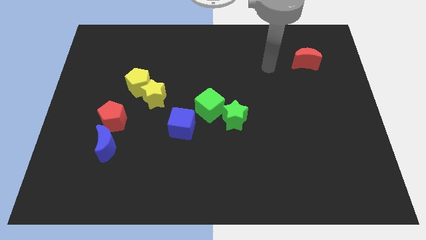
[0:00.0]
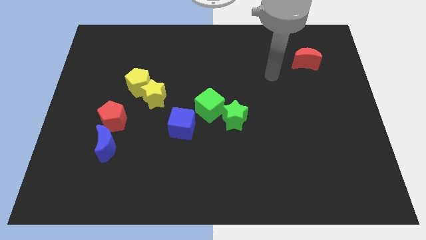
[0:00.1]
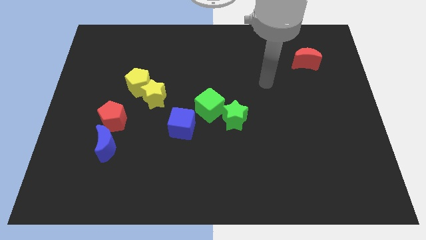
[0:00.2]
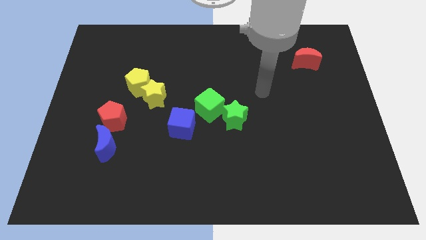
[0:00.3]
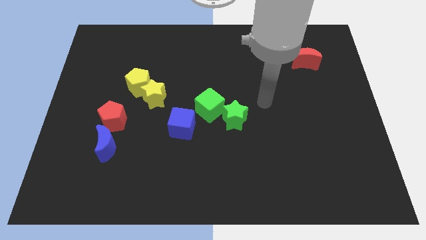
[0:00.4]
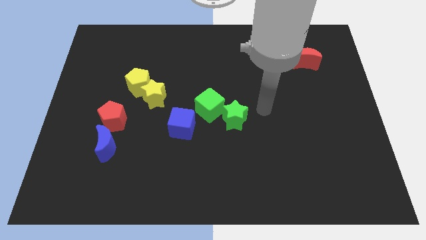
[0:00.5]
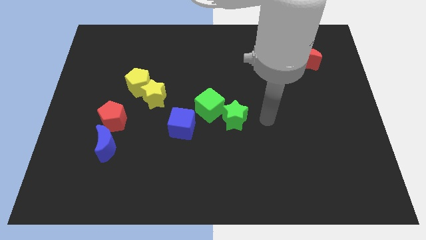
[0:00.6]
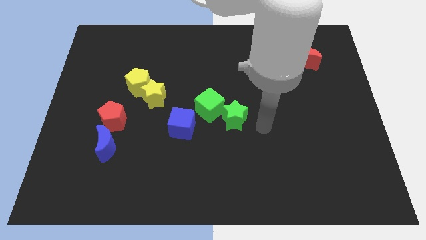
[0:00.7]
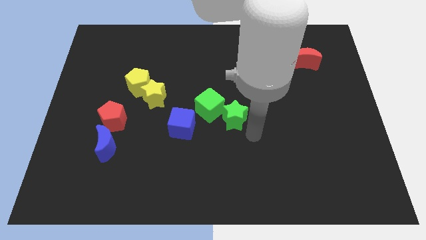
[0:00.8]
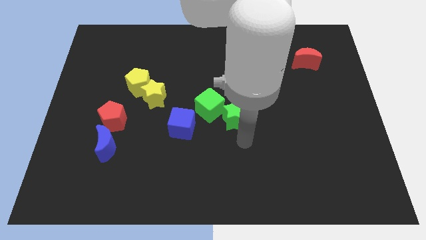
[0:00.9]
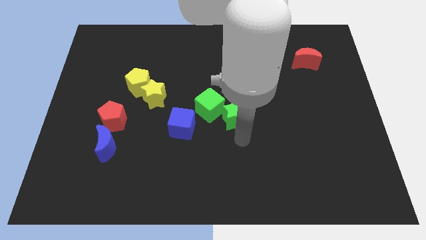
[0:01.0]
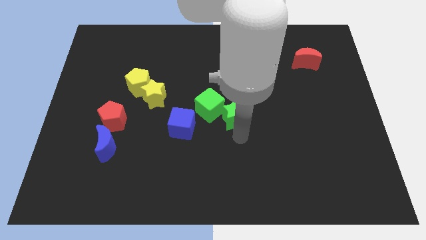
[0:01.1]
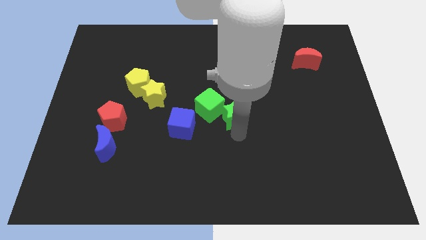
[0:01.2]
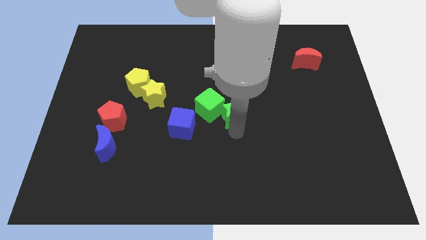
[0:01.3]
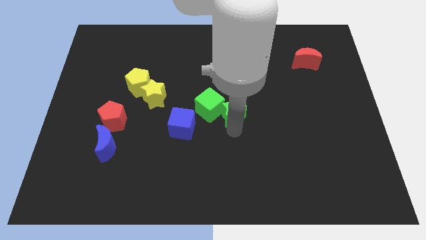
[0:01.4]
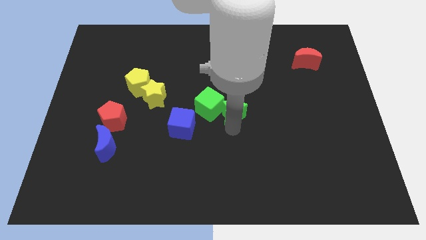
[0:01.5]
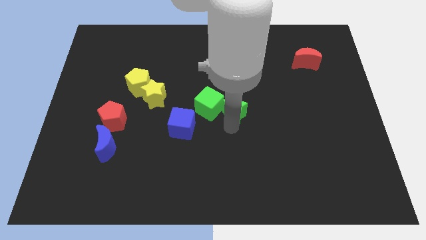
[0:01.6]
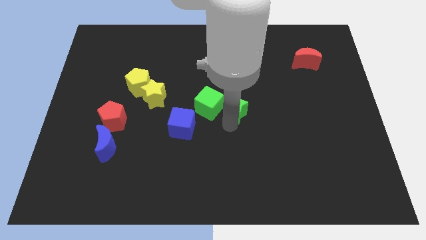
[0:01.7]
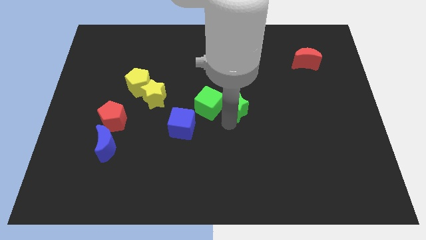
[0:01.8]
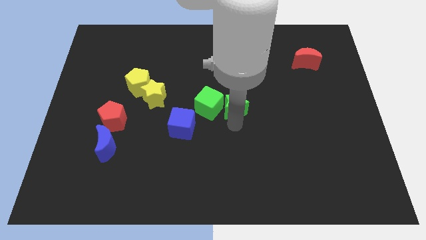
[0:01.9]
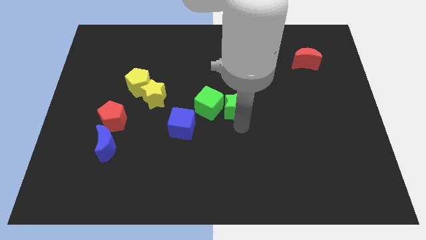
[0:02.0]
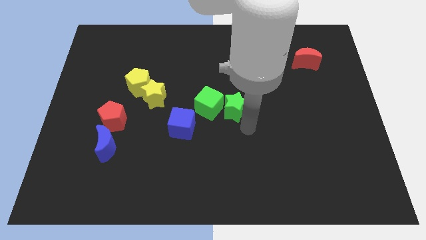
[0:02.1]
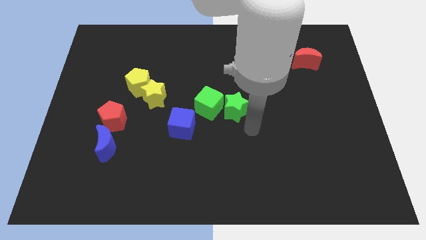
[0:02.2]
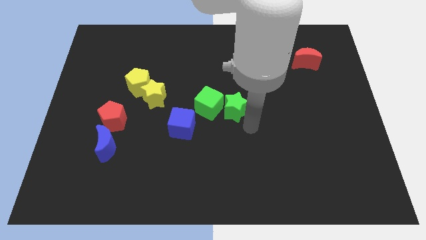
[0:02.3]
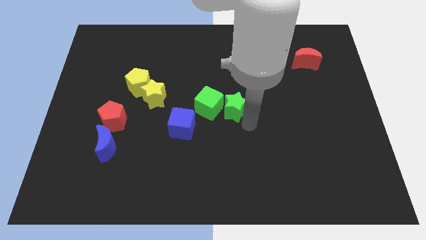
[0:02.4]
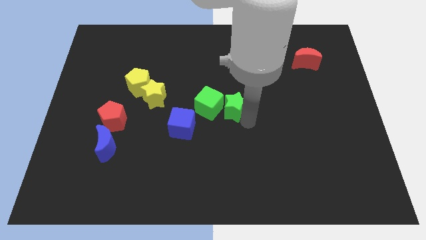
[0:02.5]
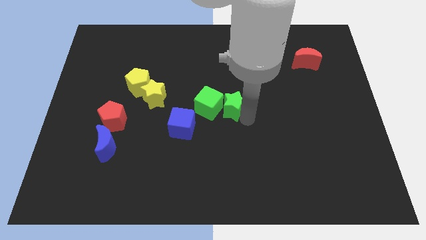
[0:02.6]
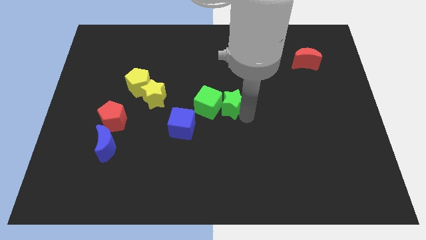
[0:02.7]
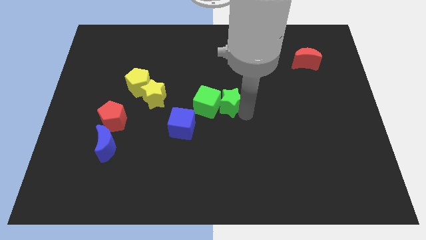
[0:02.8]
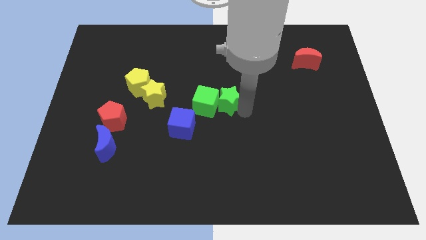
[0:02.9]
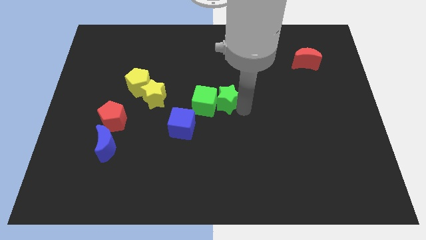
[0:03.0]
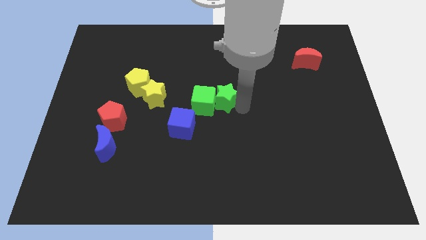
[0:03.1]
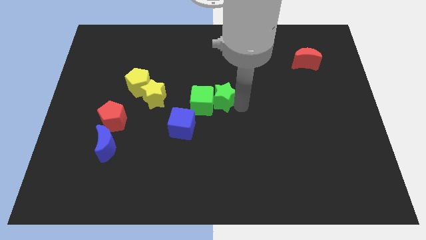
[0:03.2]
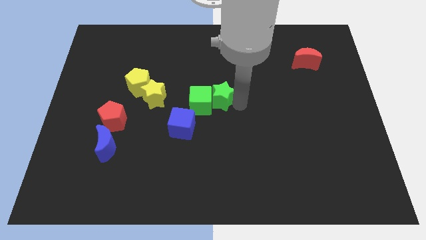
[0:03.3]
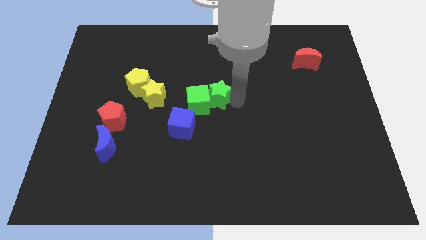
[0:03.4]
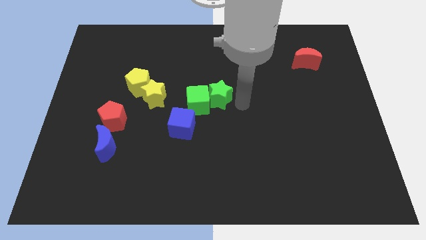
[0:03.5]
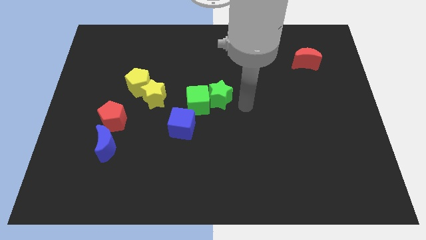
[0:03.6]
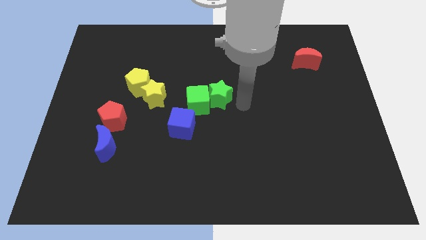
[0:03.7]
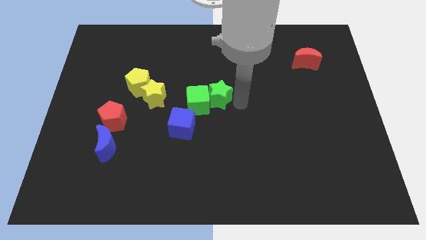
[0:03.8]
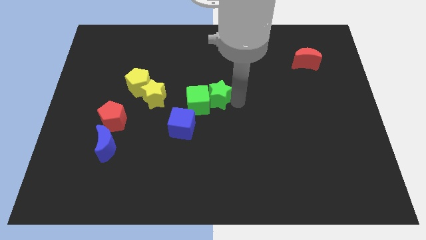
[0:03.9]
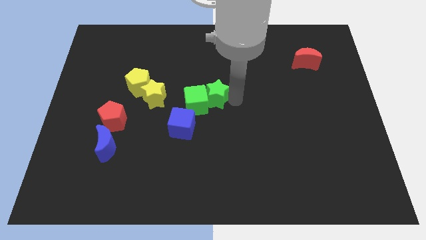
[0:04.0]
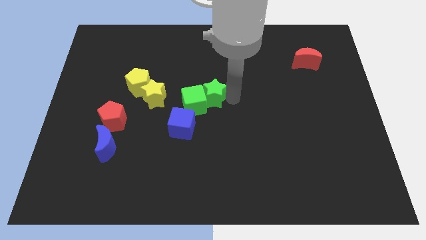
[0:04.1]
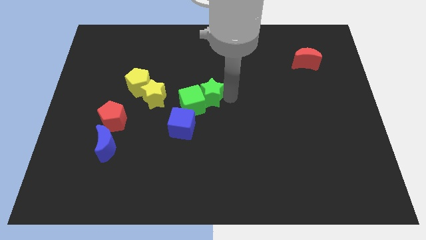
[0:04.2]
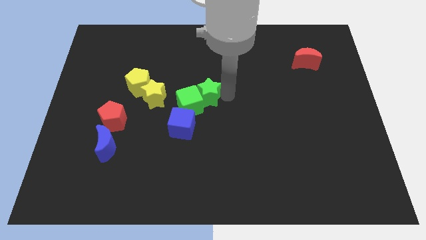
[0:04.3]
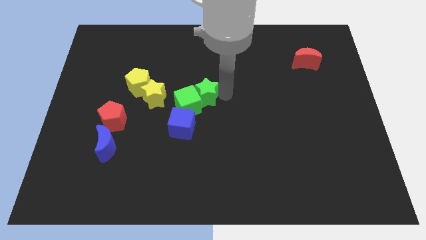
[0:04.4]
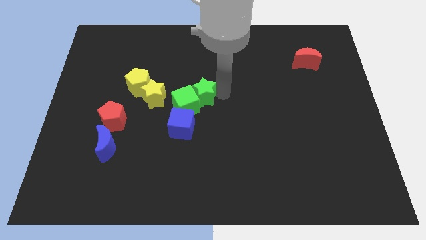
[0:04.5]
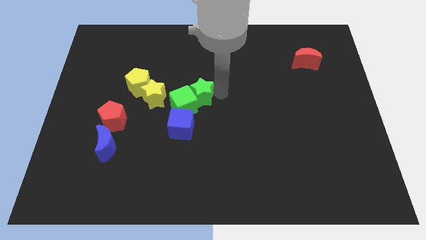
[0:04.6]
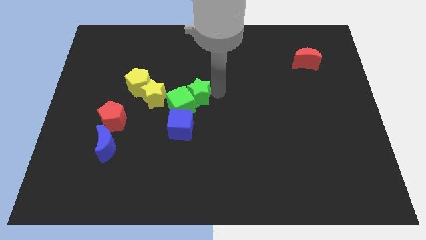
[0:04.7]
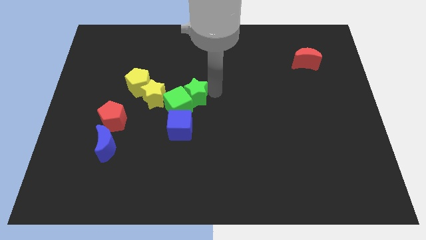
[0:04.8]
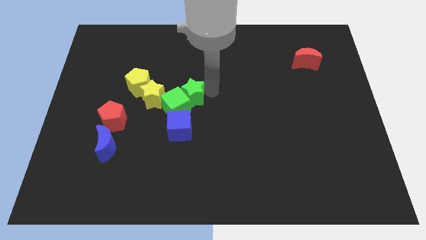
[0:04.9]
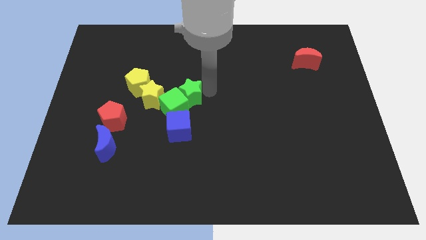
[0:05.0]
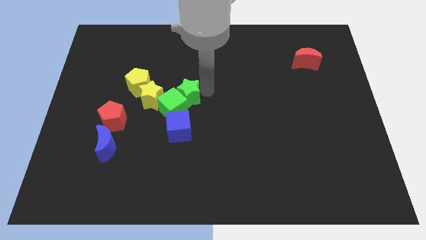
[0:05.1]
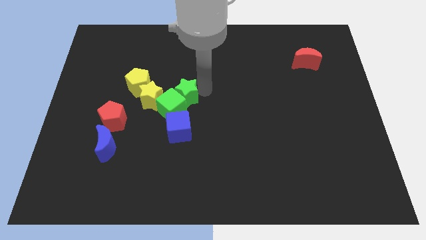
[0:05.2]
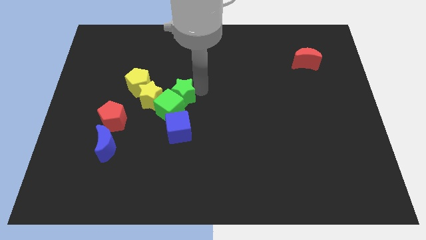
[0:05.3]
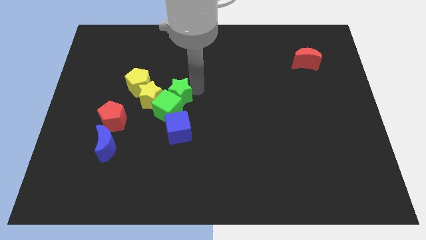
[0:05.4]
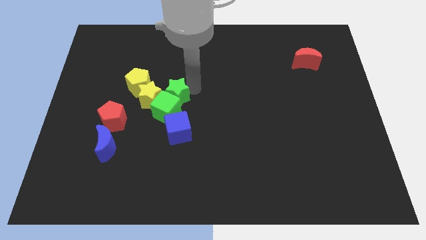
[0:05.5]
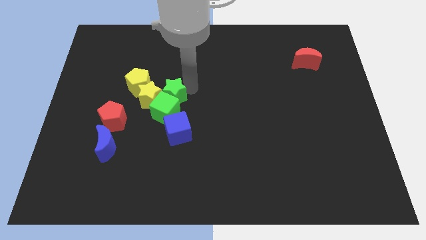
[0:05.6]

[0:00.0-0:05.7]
slide the green star next to the yellow star

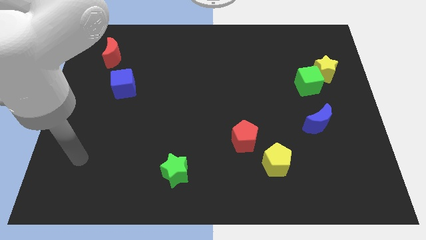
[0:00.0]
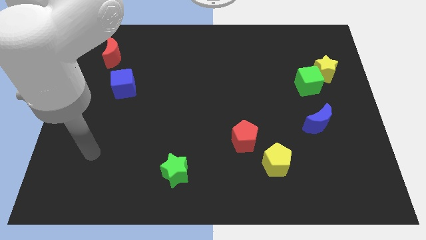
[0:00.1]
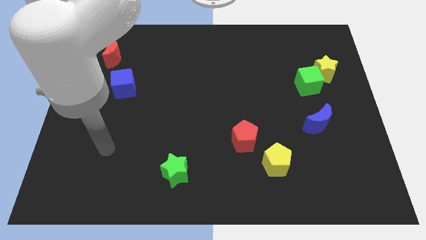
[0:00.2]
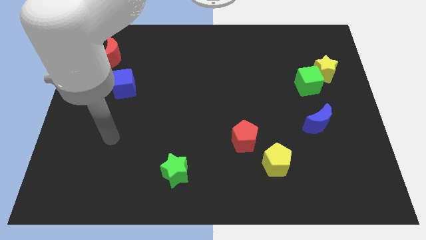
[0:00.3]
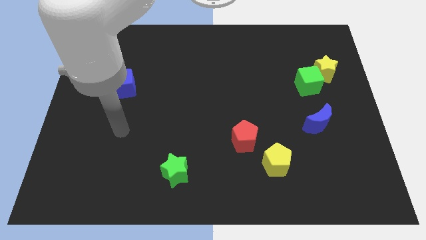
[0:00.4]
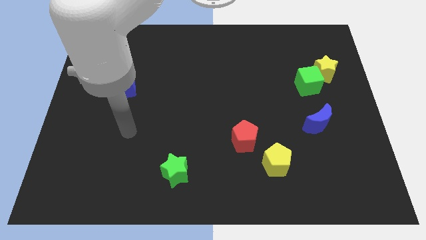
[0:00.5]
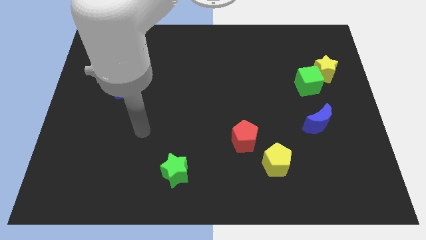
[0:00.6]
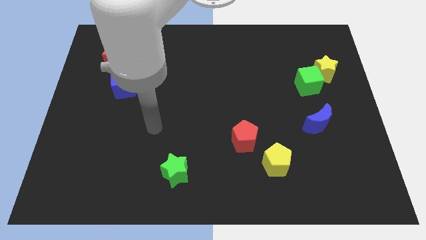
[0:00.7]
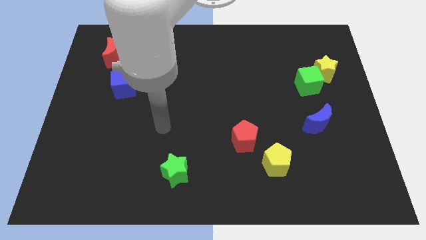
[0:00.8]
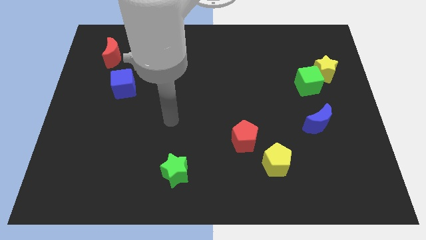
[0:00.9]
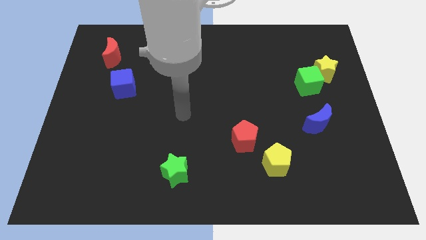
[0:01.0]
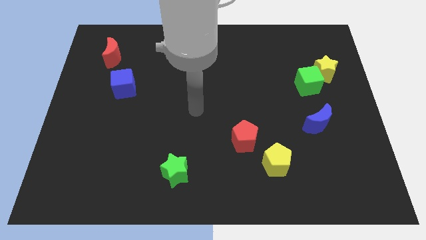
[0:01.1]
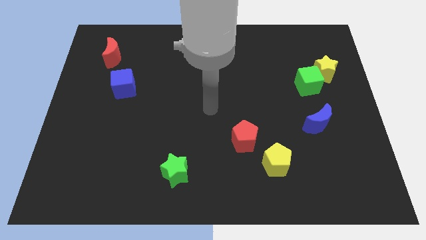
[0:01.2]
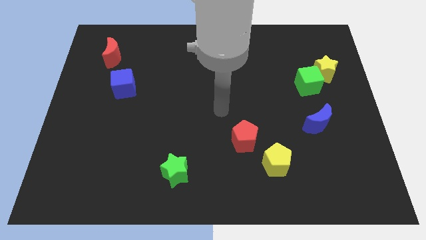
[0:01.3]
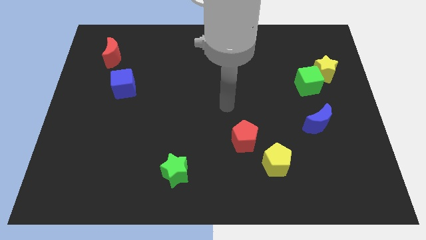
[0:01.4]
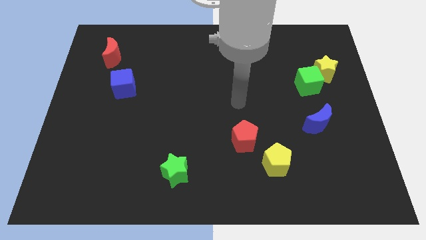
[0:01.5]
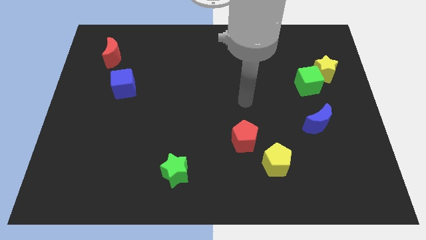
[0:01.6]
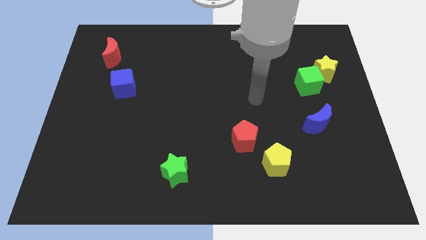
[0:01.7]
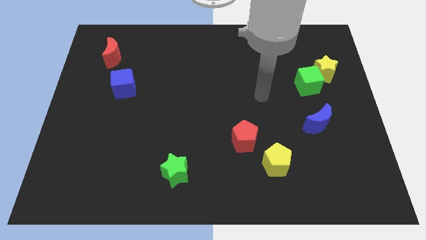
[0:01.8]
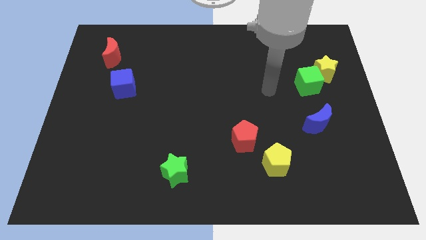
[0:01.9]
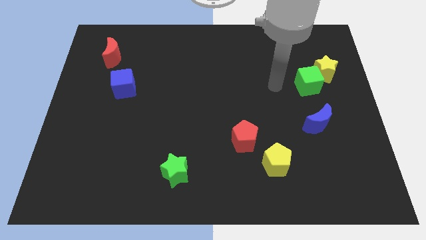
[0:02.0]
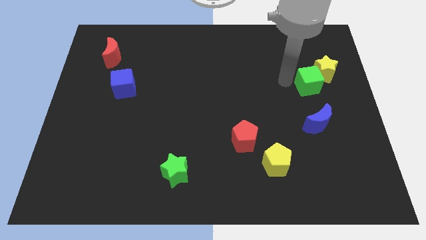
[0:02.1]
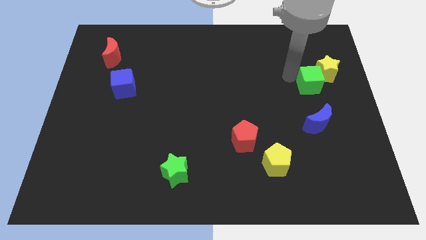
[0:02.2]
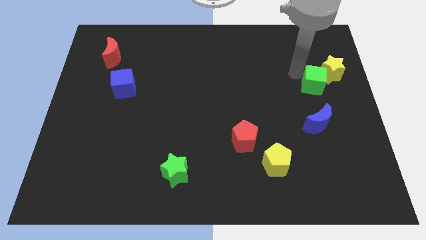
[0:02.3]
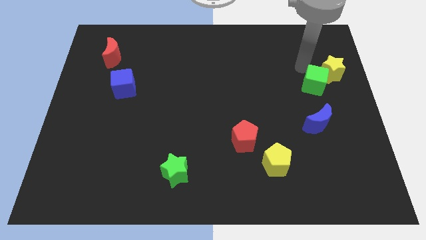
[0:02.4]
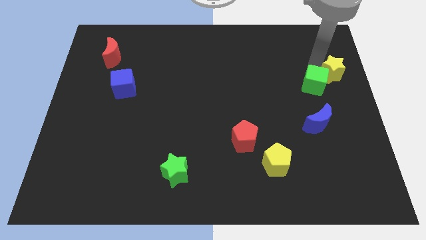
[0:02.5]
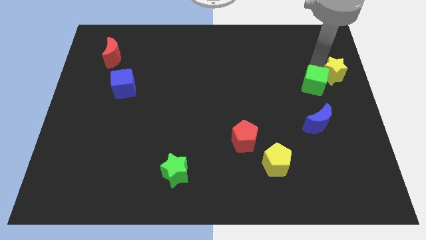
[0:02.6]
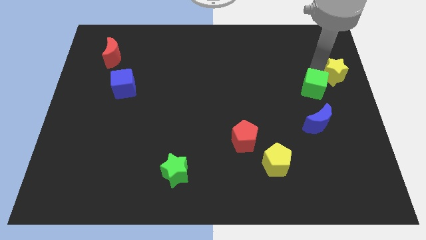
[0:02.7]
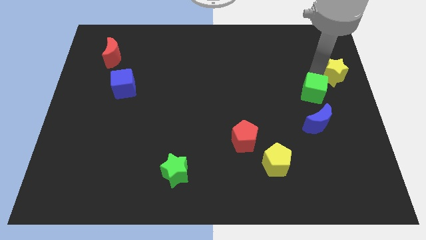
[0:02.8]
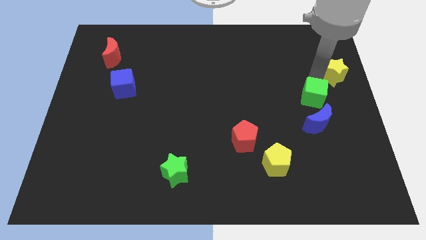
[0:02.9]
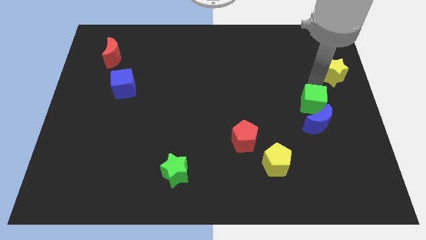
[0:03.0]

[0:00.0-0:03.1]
put the green cube to the blue moon
